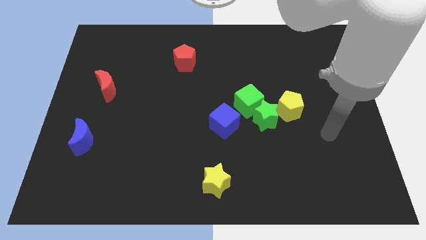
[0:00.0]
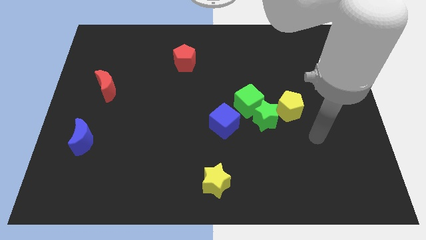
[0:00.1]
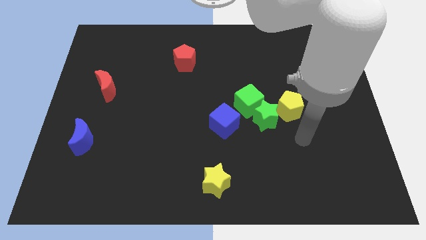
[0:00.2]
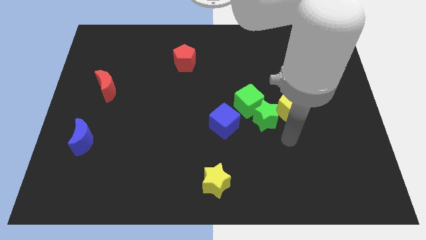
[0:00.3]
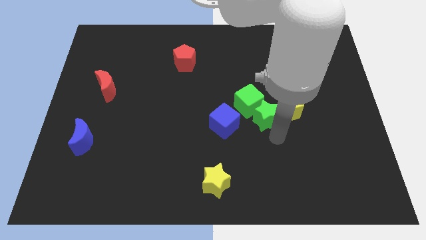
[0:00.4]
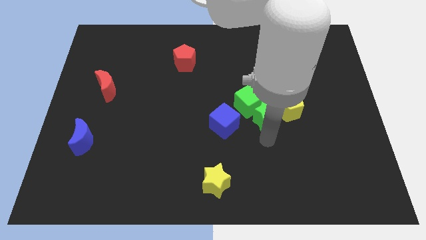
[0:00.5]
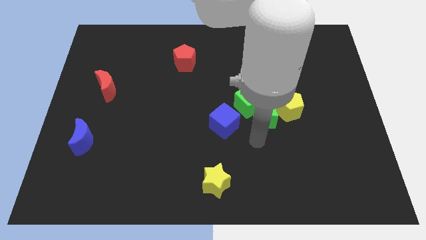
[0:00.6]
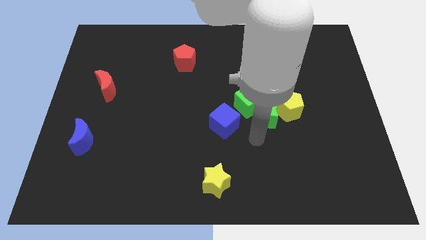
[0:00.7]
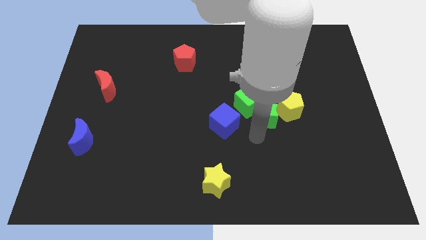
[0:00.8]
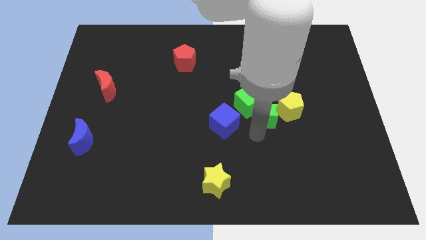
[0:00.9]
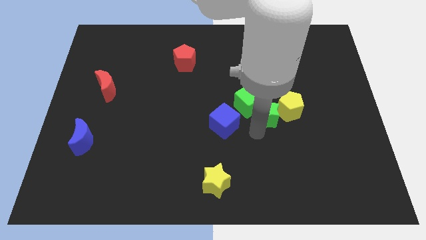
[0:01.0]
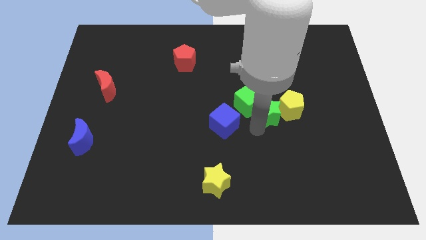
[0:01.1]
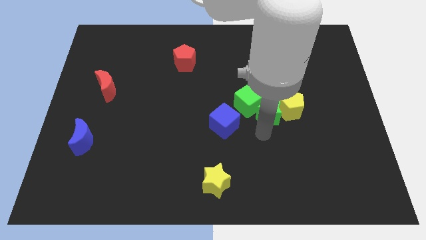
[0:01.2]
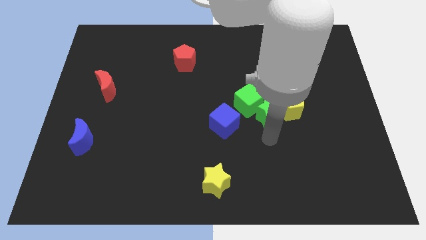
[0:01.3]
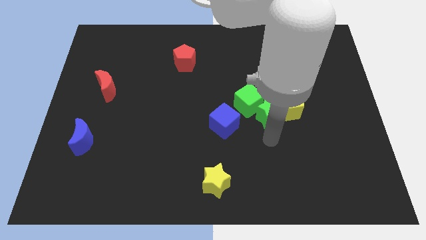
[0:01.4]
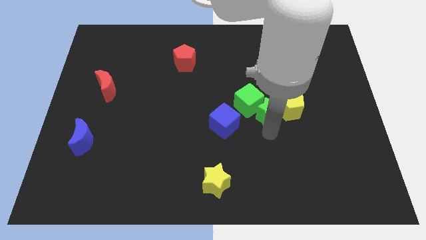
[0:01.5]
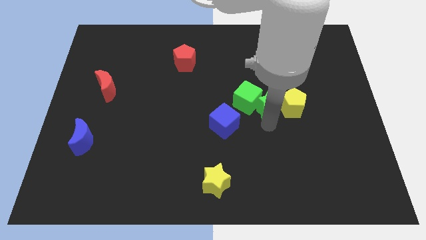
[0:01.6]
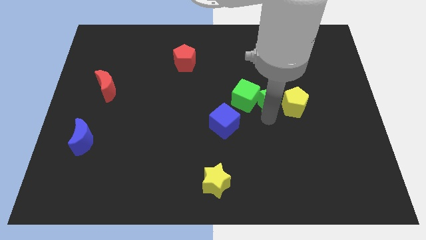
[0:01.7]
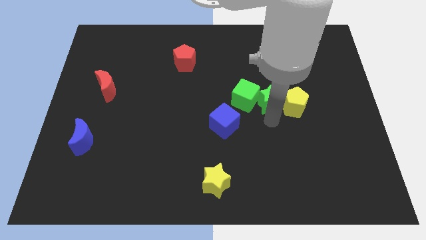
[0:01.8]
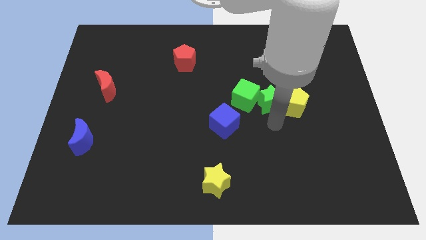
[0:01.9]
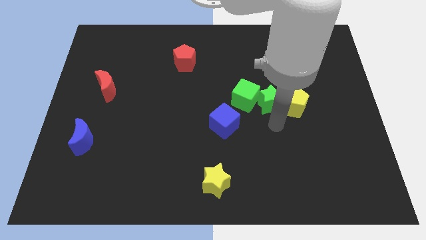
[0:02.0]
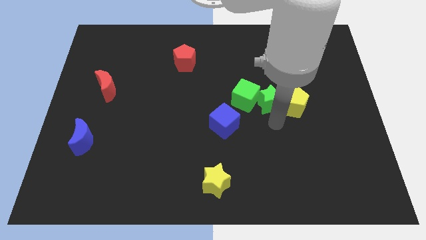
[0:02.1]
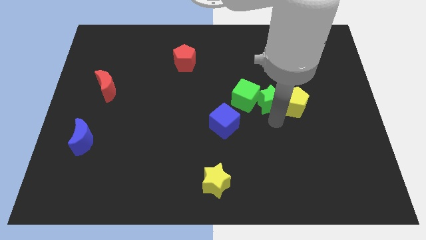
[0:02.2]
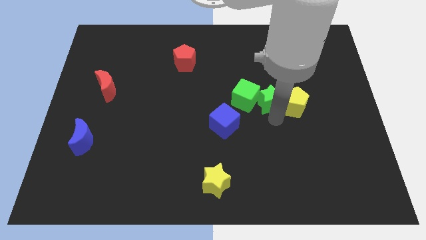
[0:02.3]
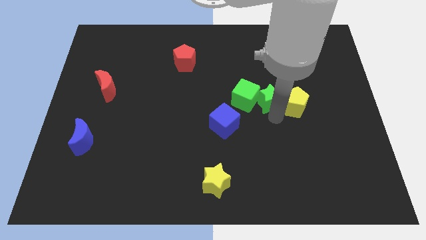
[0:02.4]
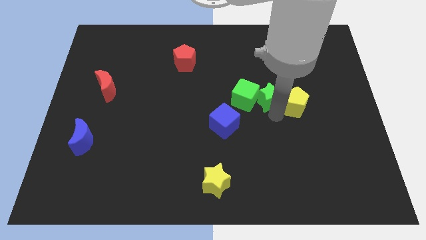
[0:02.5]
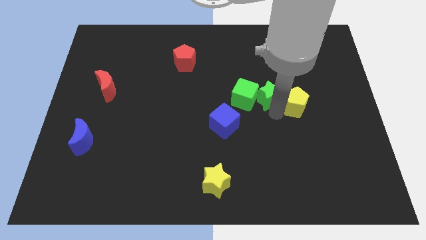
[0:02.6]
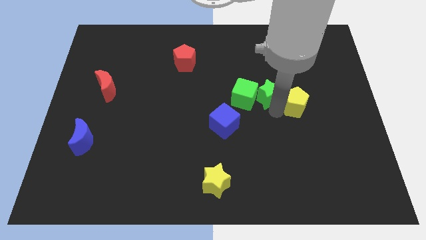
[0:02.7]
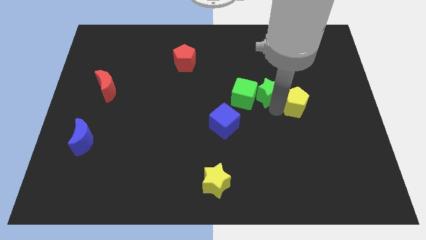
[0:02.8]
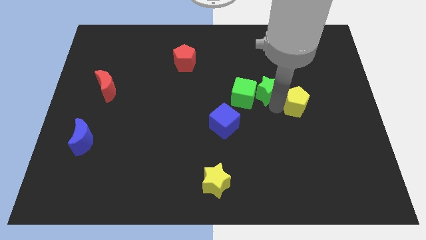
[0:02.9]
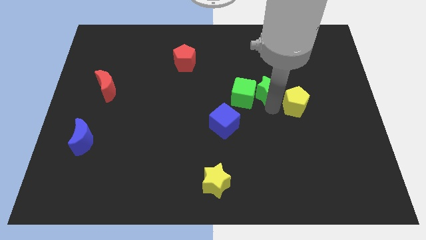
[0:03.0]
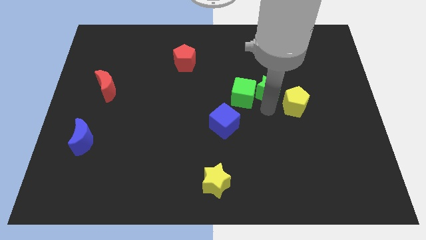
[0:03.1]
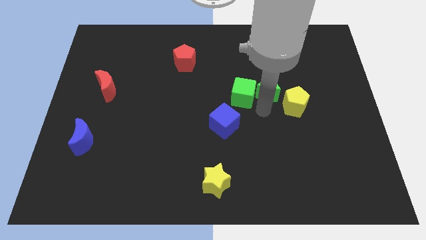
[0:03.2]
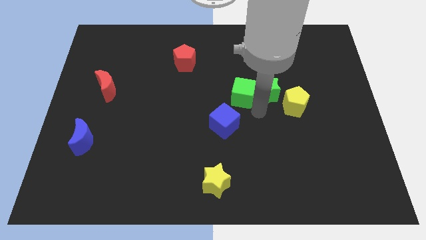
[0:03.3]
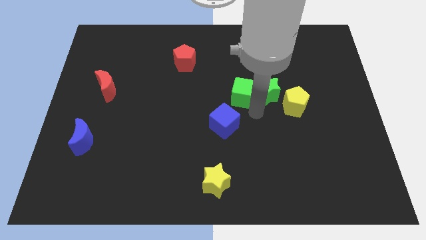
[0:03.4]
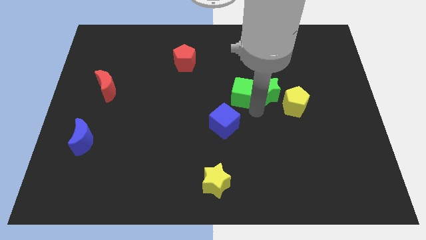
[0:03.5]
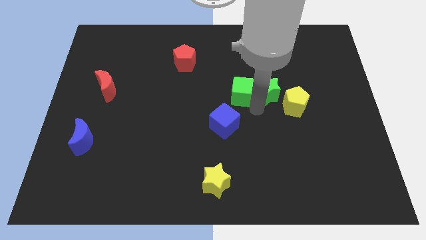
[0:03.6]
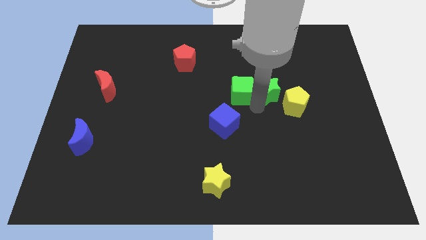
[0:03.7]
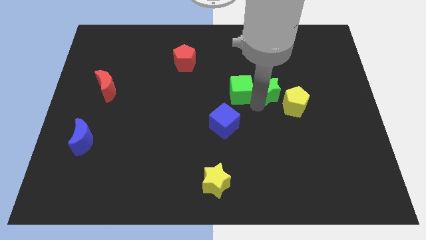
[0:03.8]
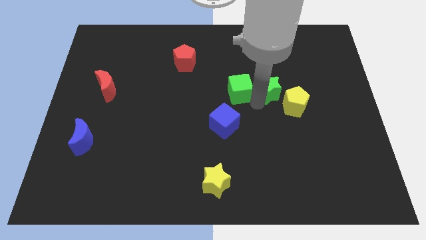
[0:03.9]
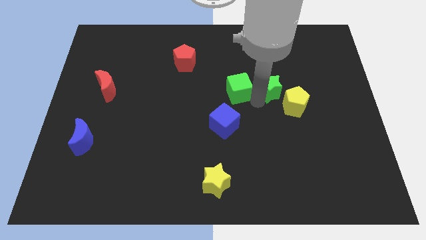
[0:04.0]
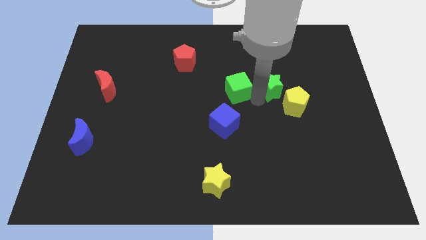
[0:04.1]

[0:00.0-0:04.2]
move the green star up and to the right diagonally a little

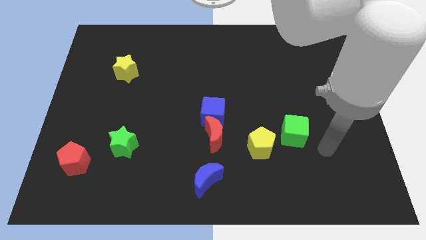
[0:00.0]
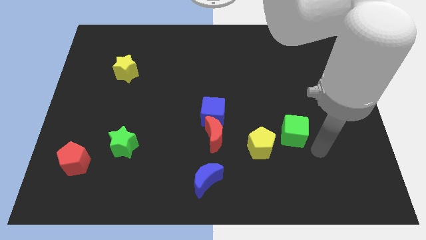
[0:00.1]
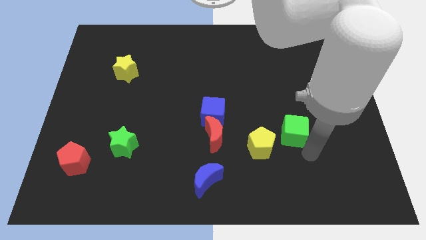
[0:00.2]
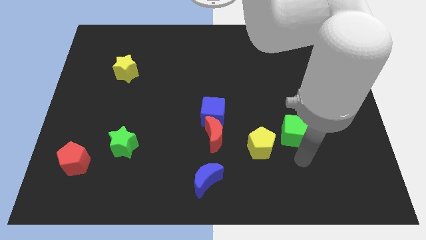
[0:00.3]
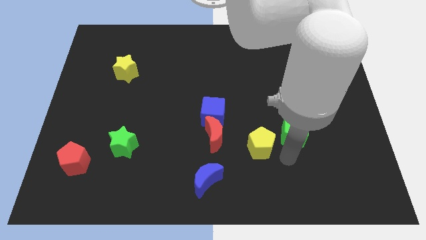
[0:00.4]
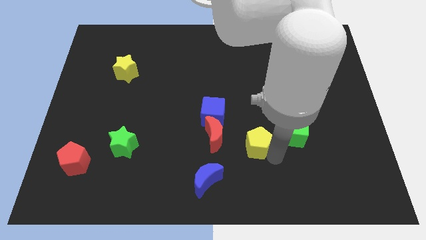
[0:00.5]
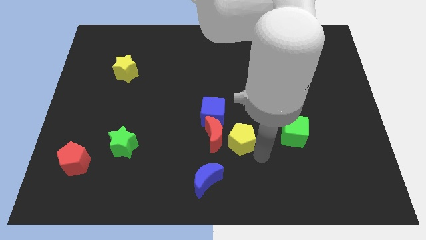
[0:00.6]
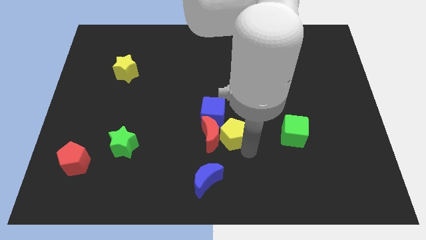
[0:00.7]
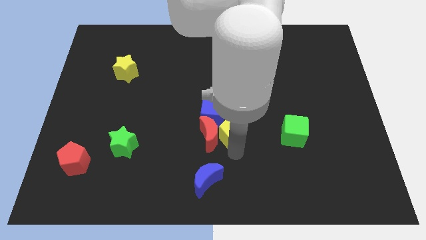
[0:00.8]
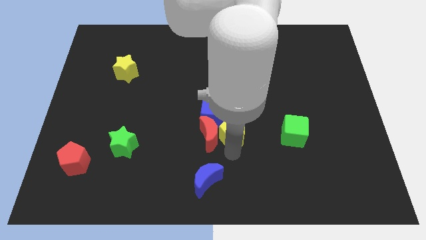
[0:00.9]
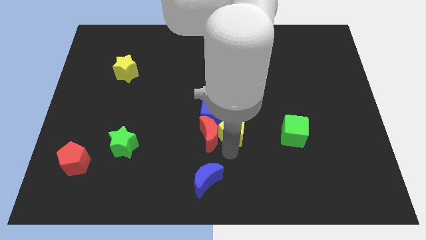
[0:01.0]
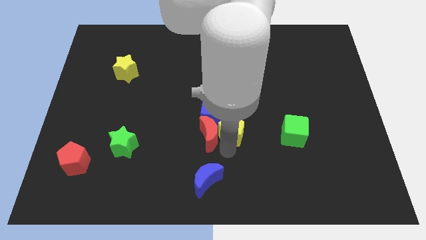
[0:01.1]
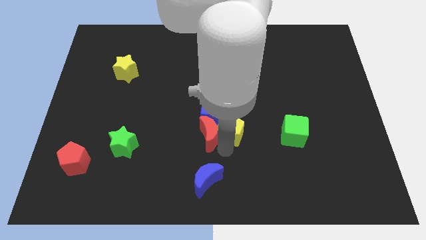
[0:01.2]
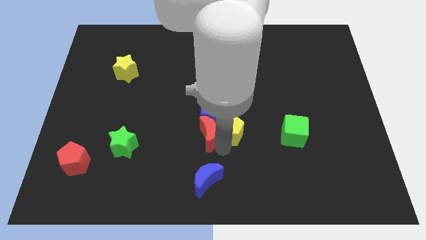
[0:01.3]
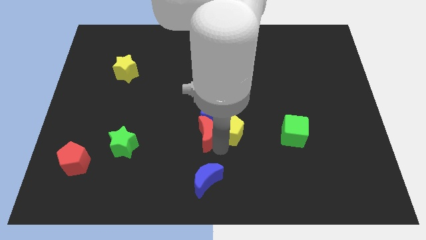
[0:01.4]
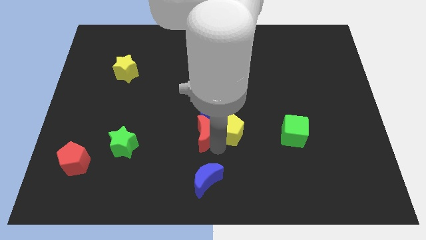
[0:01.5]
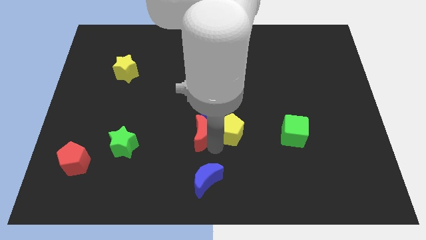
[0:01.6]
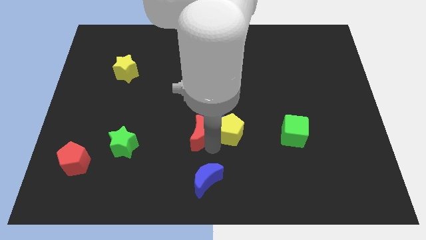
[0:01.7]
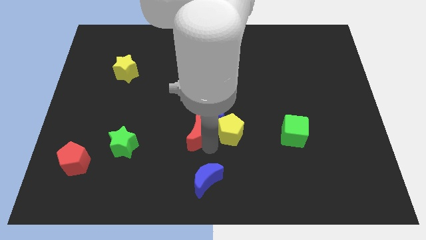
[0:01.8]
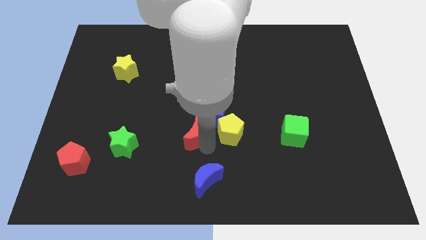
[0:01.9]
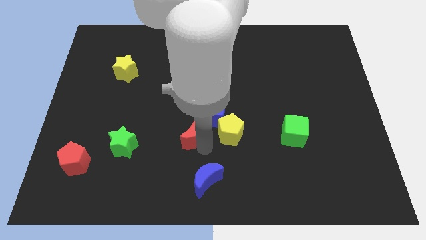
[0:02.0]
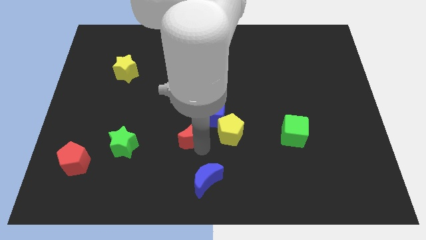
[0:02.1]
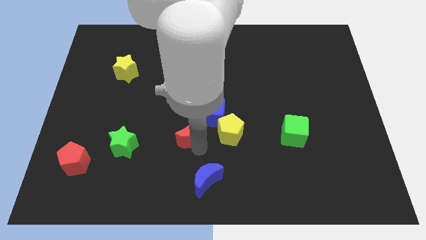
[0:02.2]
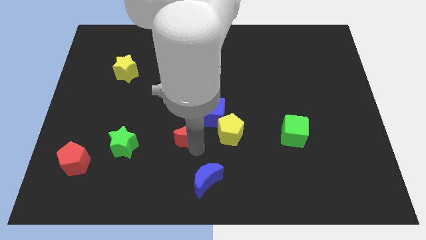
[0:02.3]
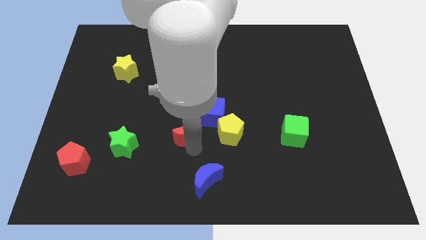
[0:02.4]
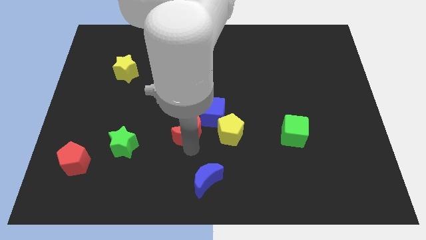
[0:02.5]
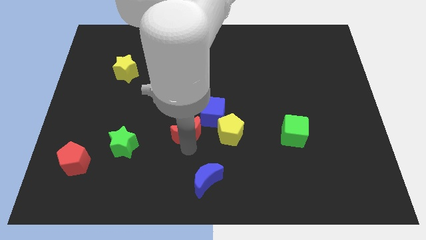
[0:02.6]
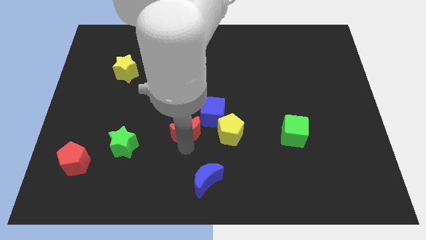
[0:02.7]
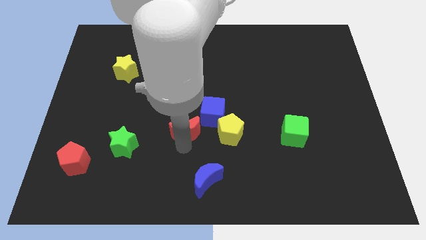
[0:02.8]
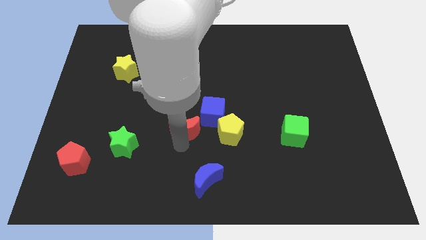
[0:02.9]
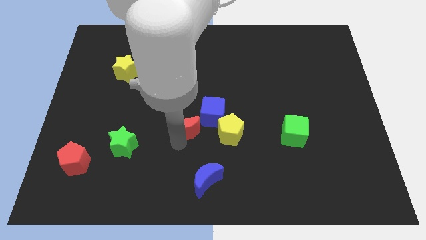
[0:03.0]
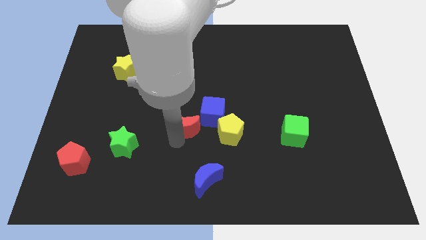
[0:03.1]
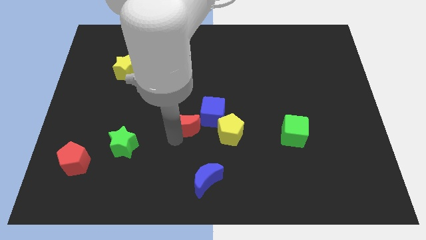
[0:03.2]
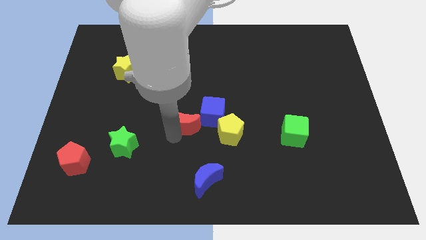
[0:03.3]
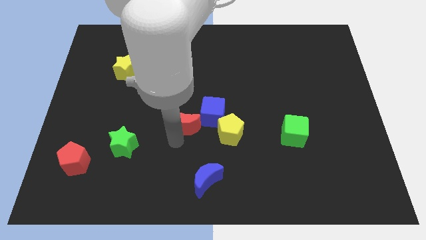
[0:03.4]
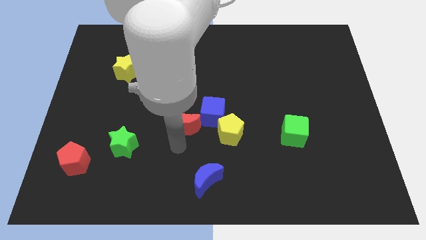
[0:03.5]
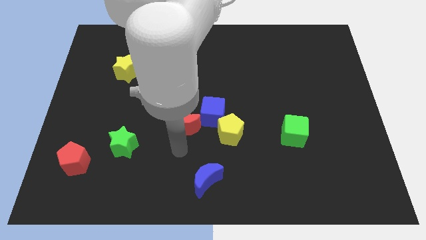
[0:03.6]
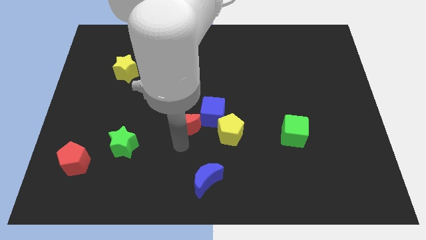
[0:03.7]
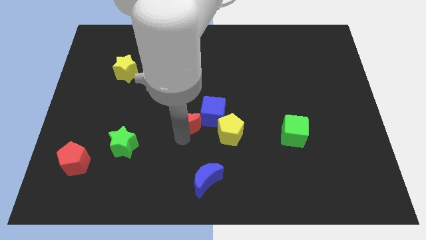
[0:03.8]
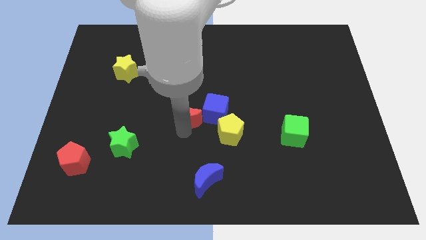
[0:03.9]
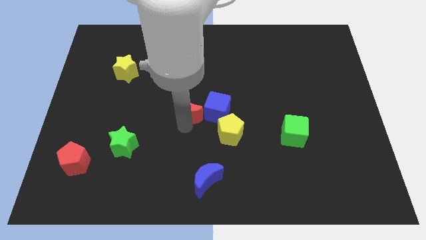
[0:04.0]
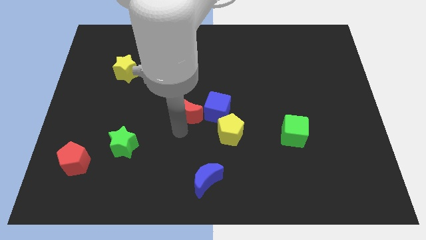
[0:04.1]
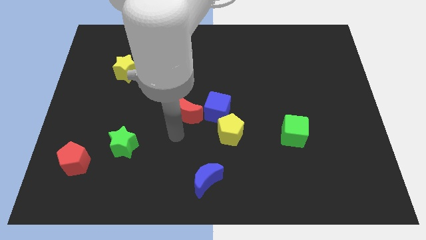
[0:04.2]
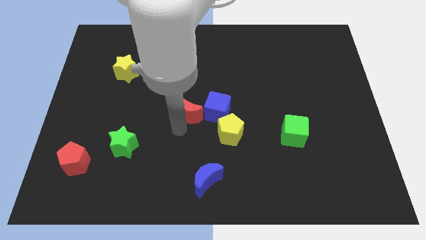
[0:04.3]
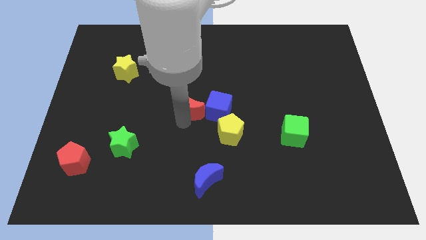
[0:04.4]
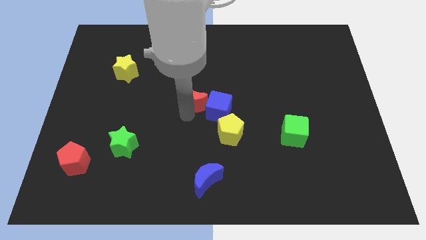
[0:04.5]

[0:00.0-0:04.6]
slide the red moon a little upwards
